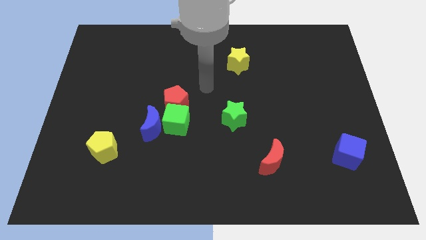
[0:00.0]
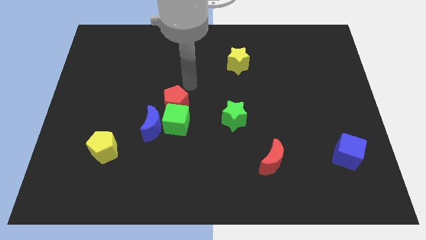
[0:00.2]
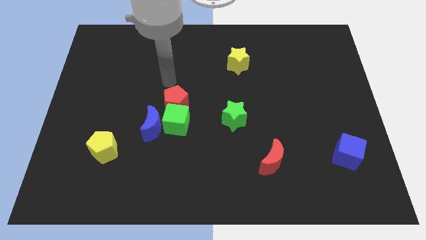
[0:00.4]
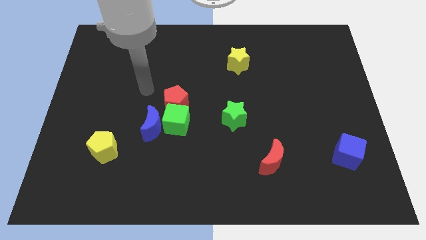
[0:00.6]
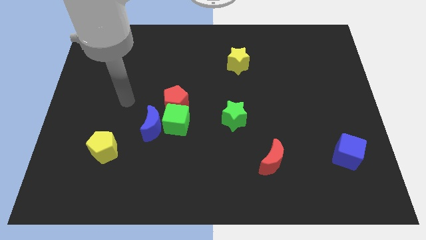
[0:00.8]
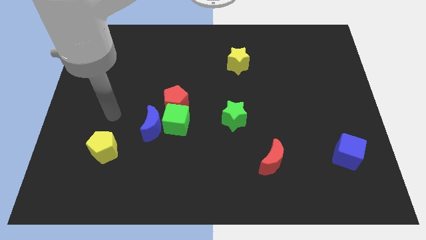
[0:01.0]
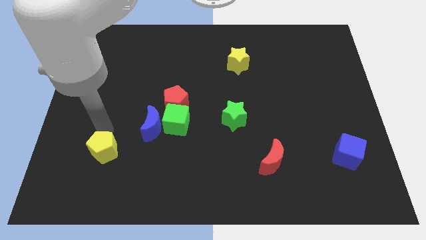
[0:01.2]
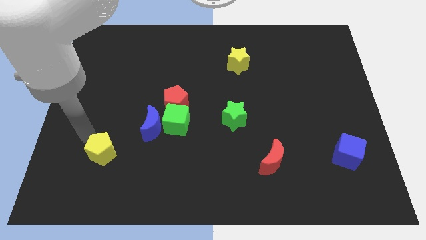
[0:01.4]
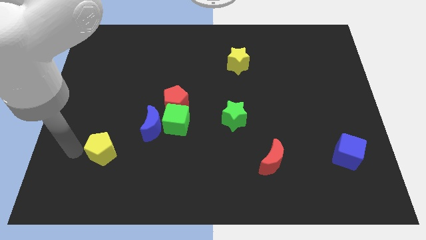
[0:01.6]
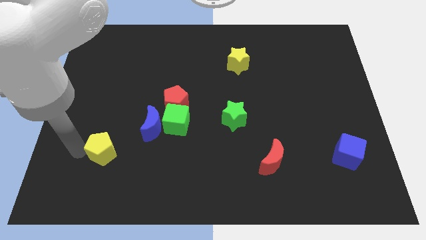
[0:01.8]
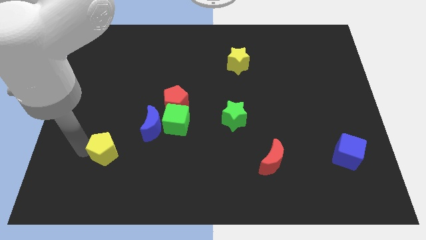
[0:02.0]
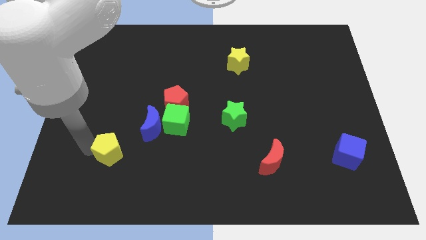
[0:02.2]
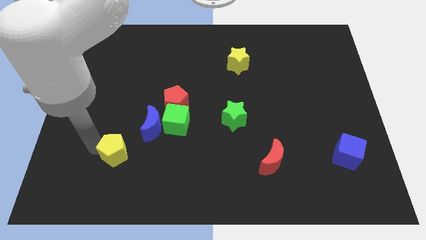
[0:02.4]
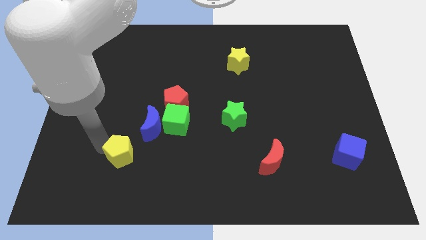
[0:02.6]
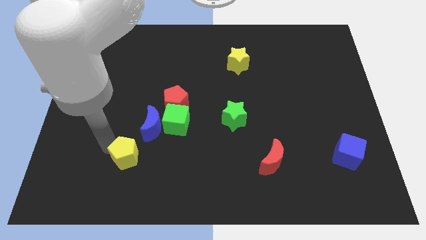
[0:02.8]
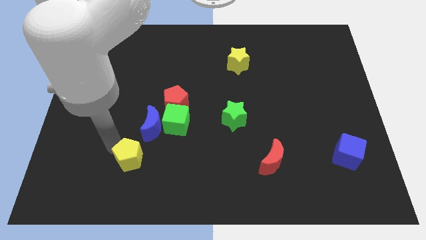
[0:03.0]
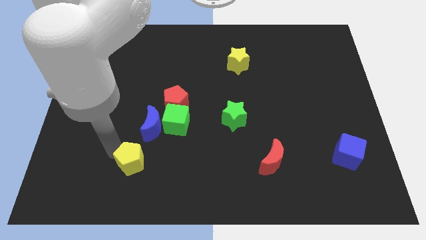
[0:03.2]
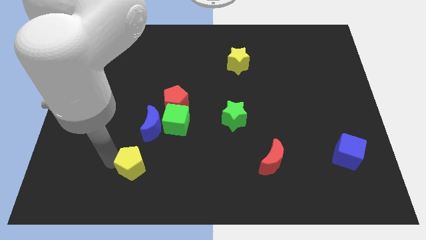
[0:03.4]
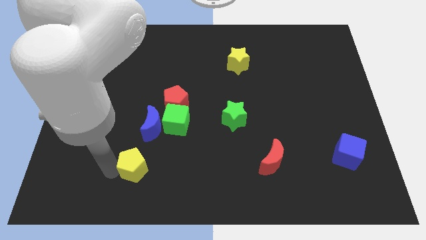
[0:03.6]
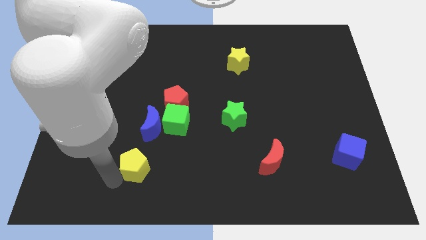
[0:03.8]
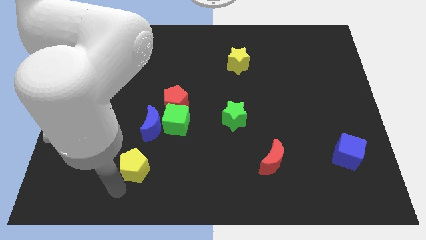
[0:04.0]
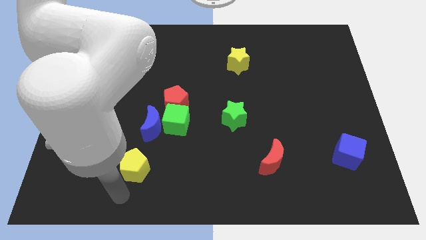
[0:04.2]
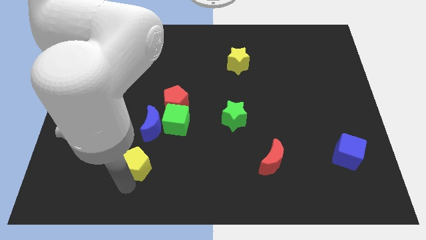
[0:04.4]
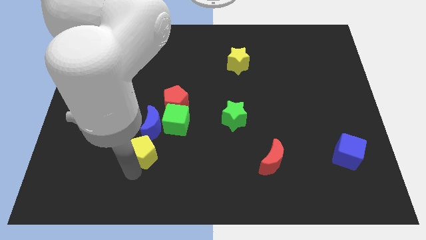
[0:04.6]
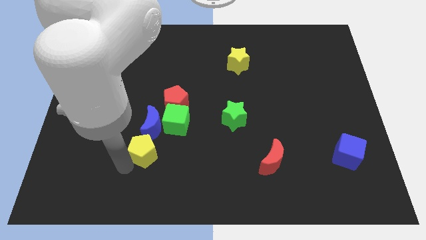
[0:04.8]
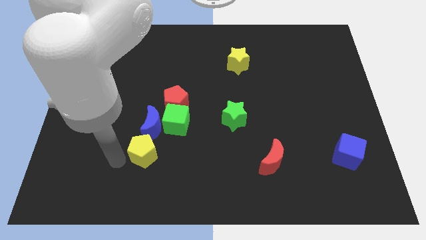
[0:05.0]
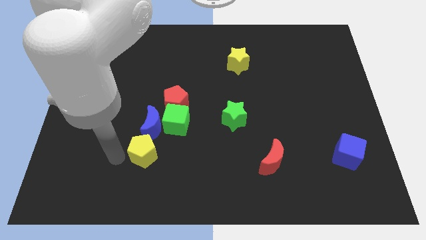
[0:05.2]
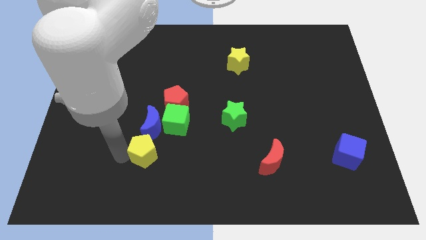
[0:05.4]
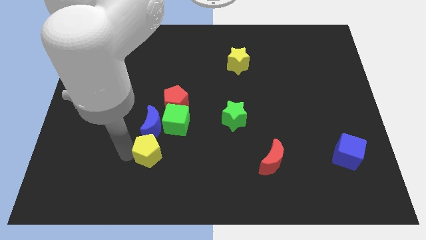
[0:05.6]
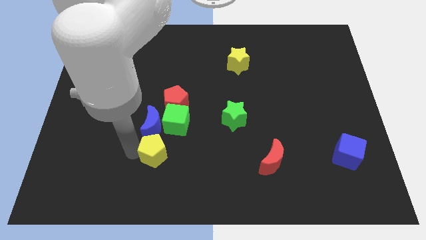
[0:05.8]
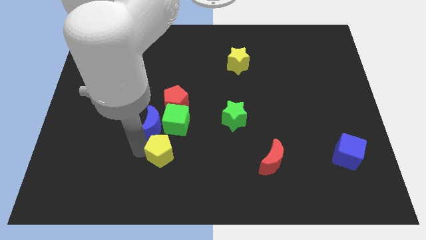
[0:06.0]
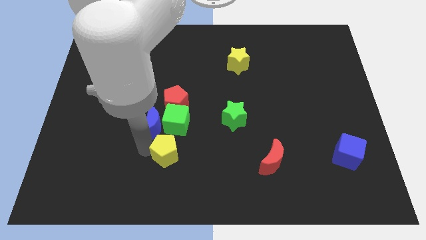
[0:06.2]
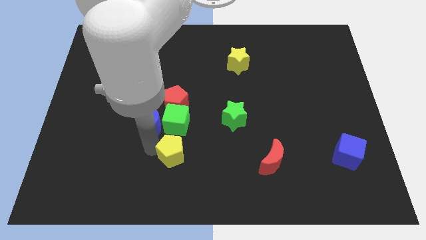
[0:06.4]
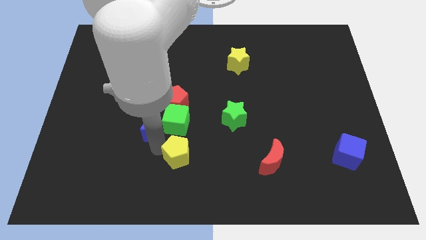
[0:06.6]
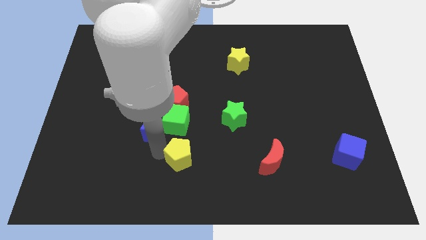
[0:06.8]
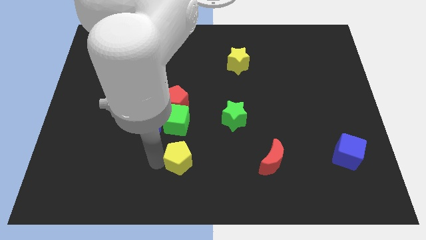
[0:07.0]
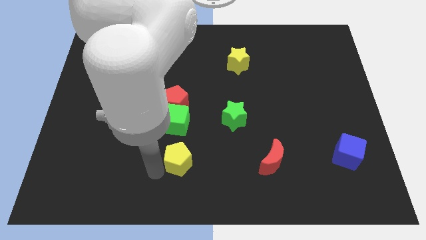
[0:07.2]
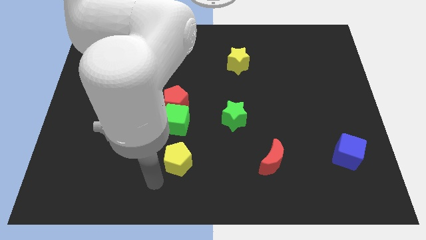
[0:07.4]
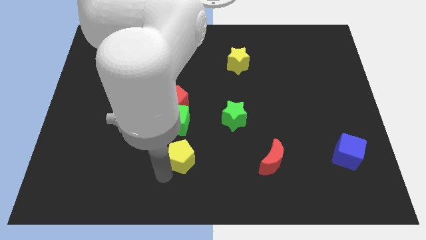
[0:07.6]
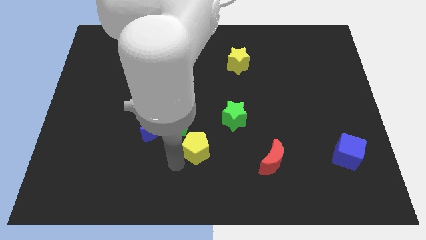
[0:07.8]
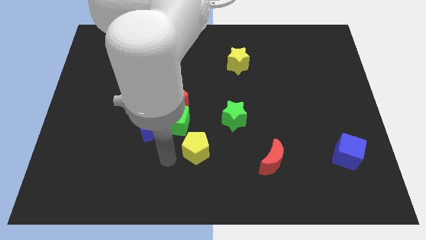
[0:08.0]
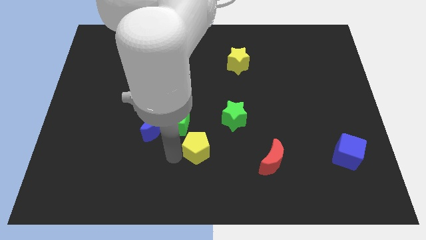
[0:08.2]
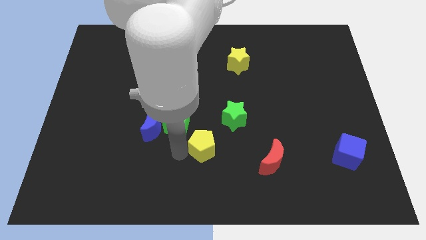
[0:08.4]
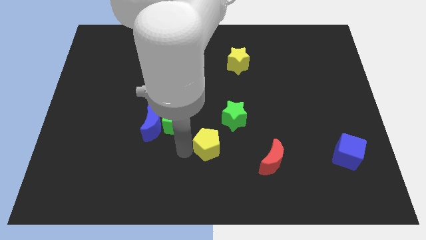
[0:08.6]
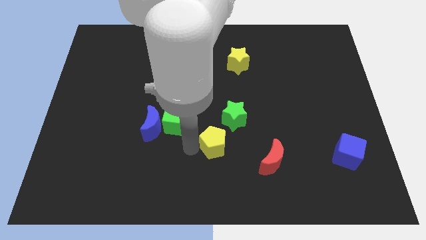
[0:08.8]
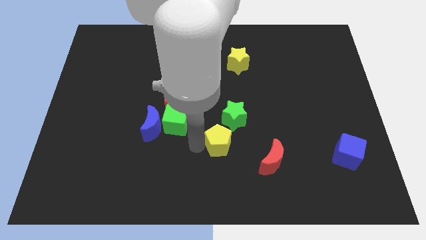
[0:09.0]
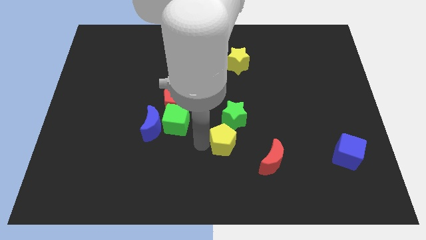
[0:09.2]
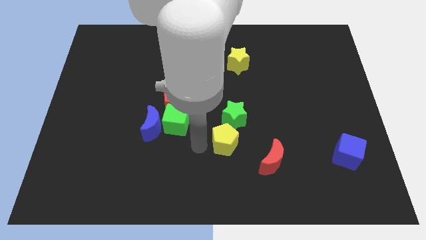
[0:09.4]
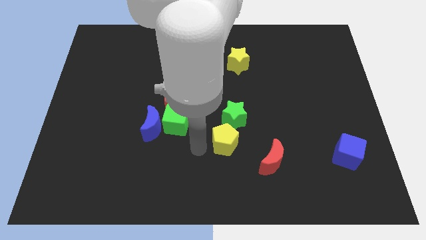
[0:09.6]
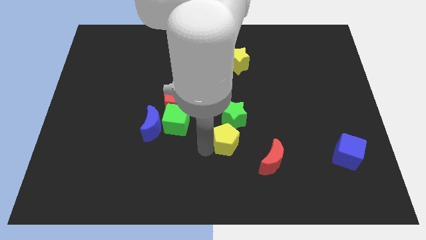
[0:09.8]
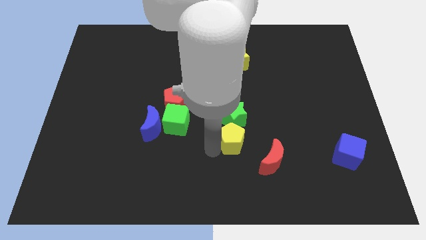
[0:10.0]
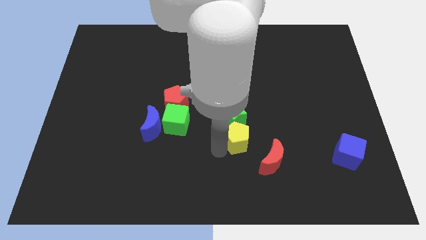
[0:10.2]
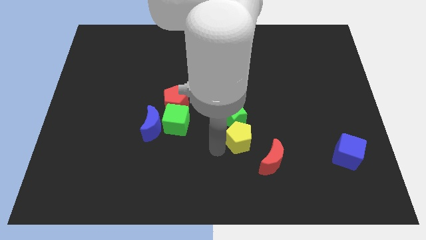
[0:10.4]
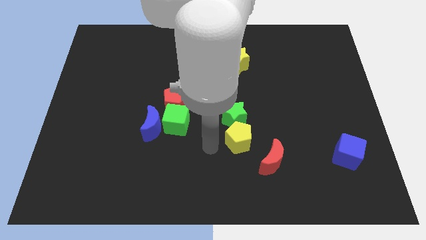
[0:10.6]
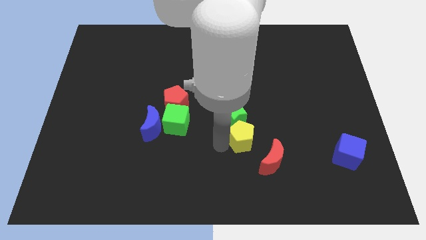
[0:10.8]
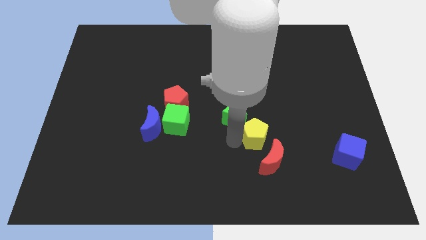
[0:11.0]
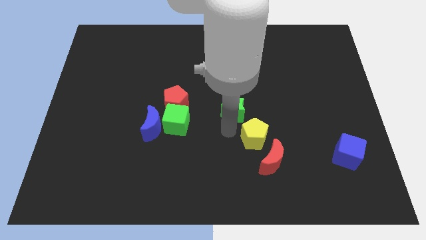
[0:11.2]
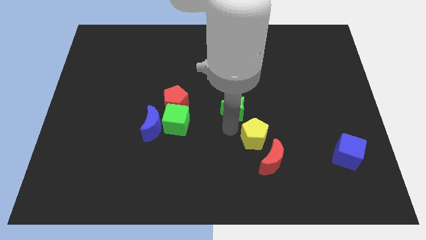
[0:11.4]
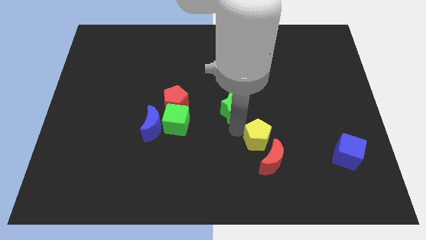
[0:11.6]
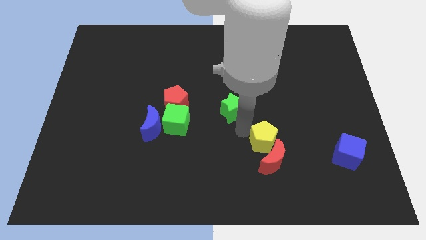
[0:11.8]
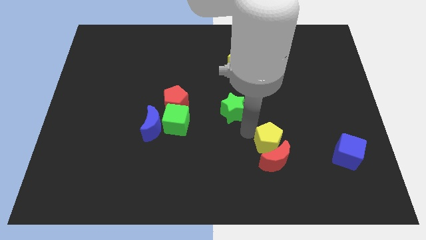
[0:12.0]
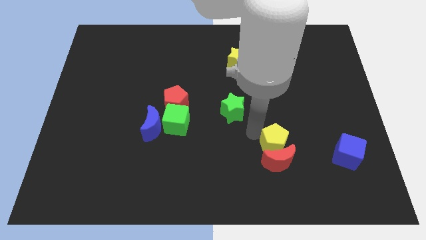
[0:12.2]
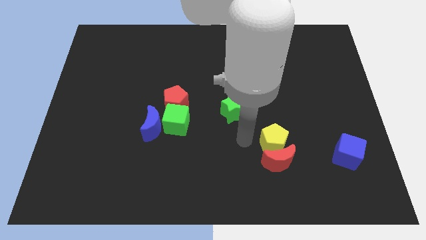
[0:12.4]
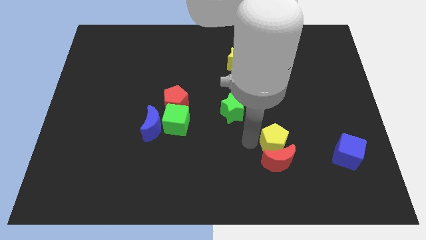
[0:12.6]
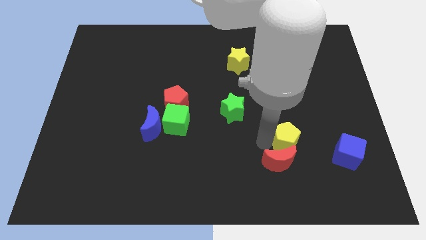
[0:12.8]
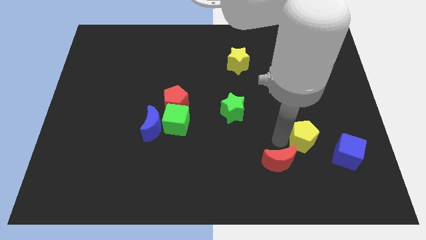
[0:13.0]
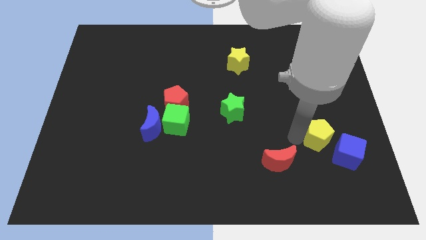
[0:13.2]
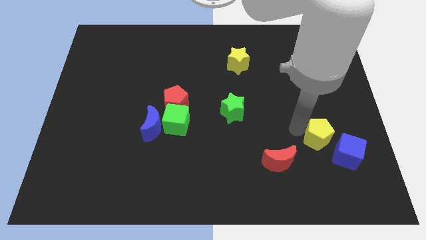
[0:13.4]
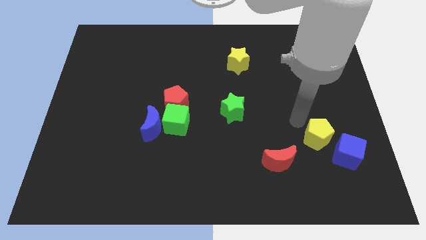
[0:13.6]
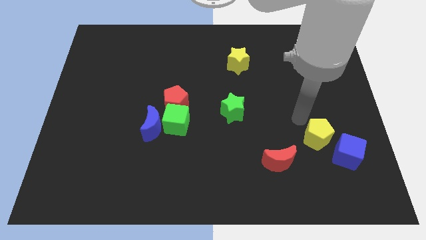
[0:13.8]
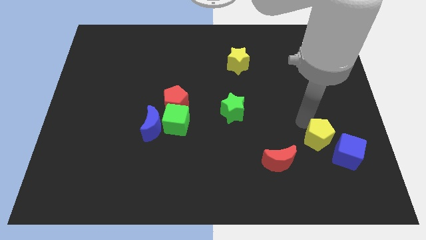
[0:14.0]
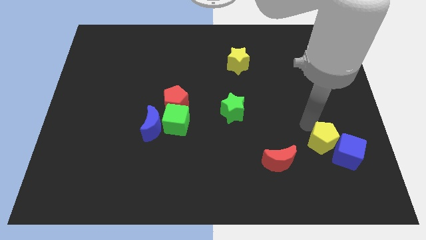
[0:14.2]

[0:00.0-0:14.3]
slide the yellow pentagon to the blue cube
